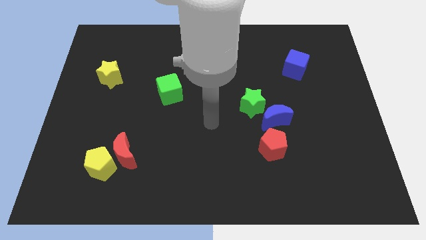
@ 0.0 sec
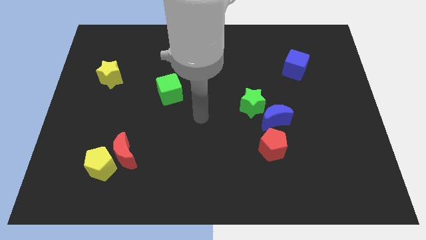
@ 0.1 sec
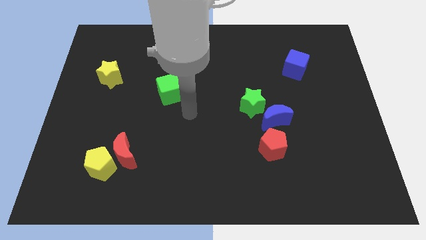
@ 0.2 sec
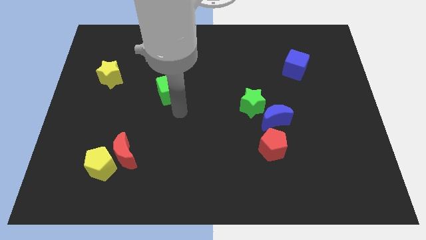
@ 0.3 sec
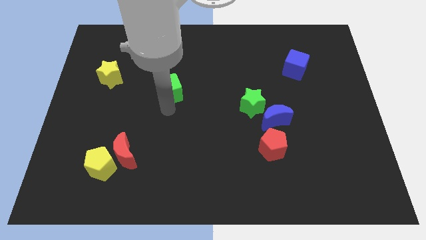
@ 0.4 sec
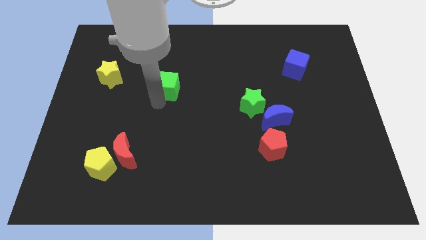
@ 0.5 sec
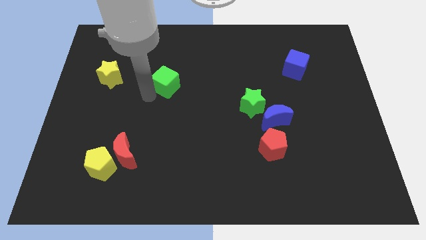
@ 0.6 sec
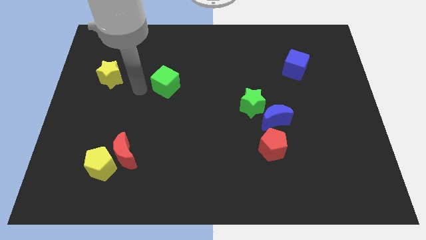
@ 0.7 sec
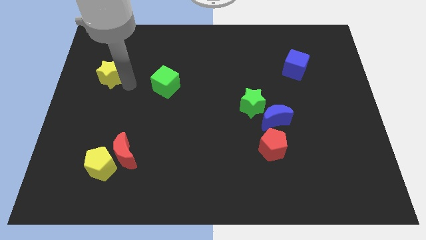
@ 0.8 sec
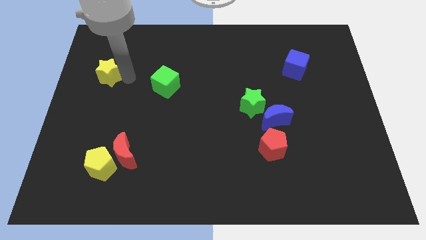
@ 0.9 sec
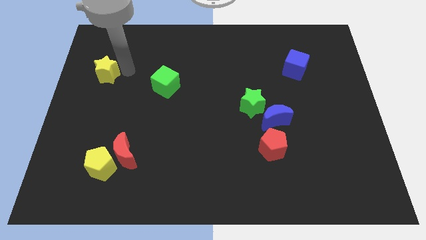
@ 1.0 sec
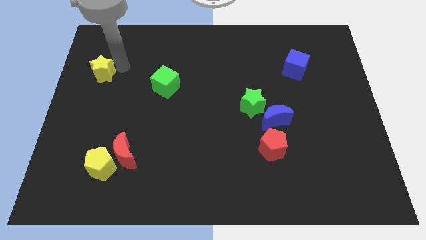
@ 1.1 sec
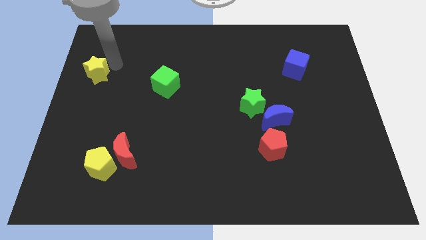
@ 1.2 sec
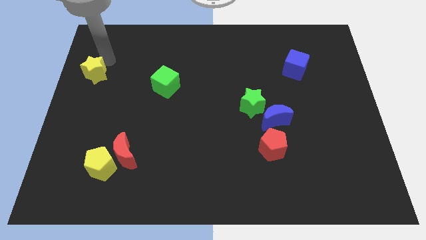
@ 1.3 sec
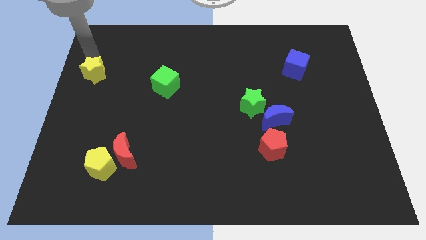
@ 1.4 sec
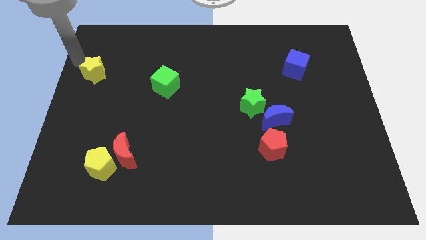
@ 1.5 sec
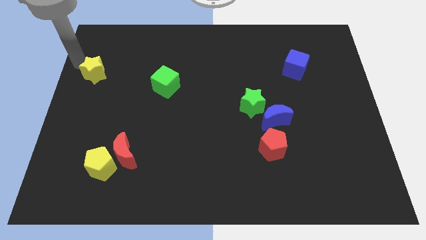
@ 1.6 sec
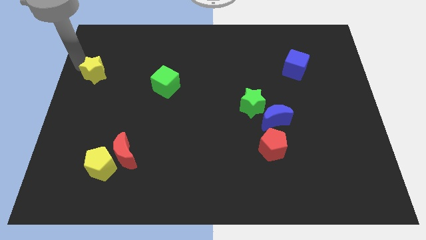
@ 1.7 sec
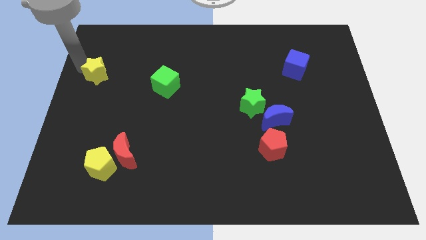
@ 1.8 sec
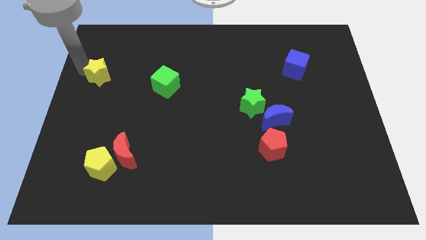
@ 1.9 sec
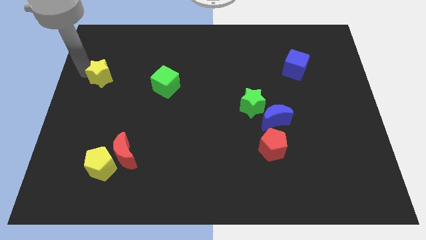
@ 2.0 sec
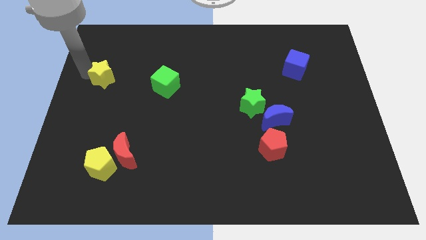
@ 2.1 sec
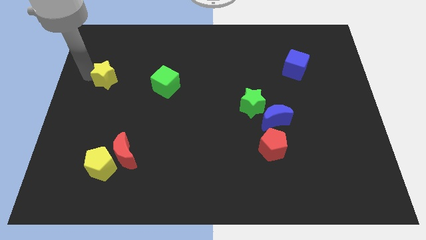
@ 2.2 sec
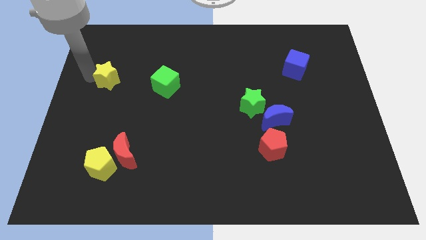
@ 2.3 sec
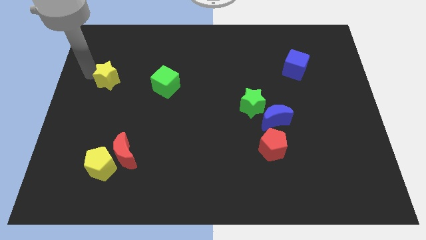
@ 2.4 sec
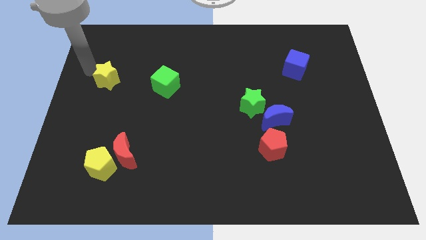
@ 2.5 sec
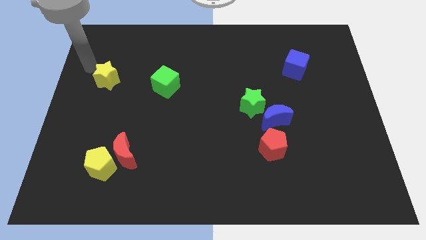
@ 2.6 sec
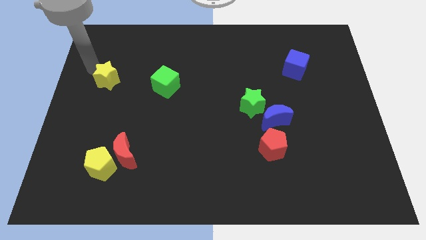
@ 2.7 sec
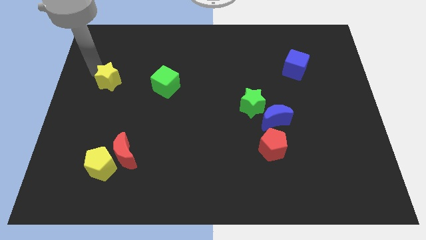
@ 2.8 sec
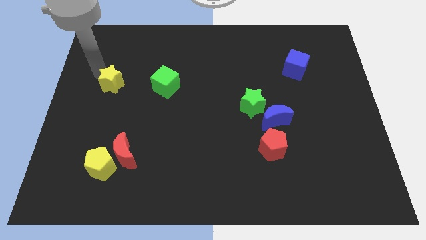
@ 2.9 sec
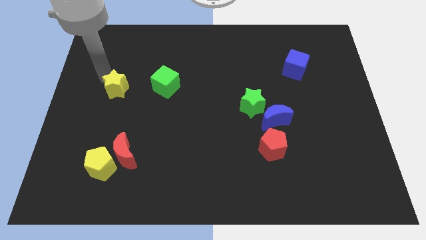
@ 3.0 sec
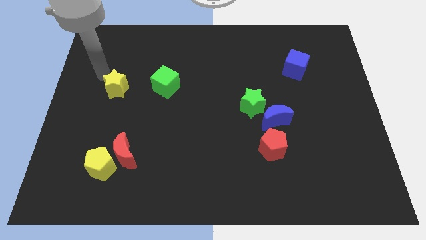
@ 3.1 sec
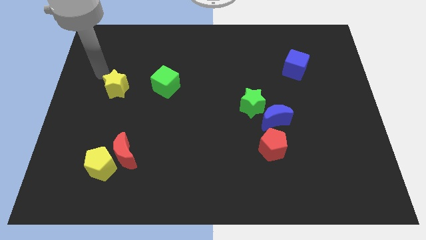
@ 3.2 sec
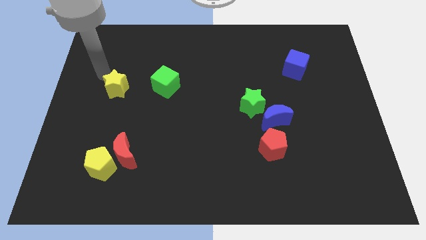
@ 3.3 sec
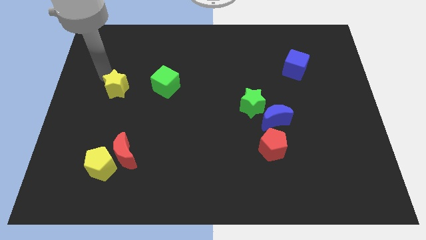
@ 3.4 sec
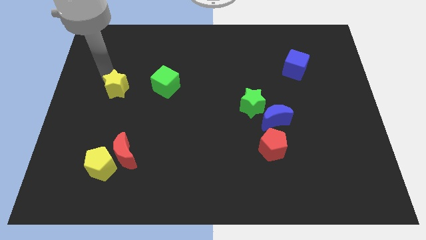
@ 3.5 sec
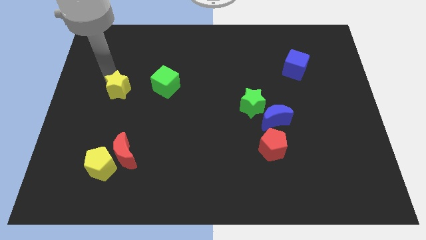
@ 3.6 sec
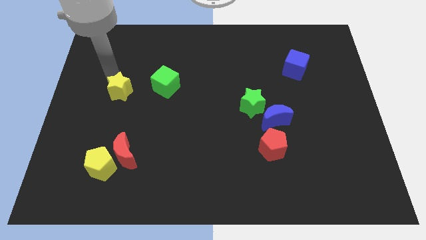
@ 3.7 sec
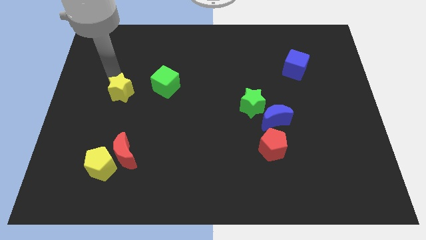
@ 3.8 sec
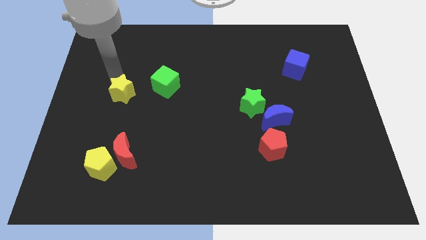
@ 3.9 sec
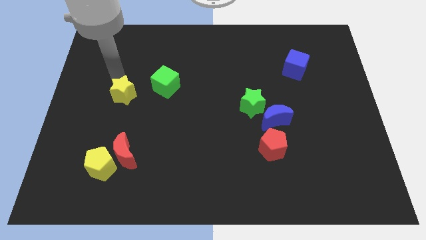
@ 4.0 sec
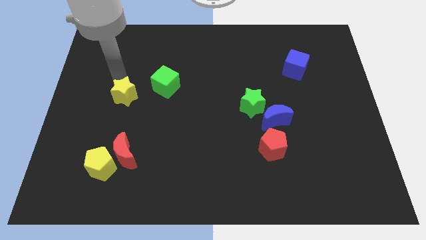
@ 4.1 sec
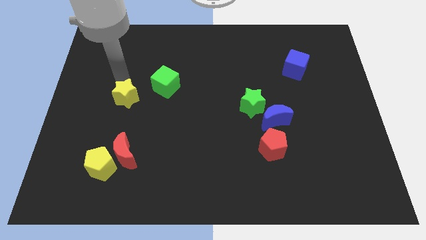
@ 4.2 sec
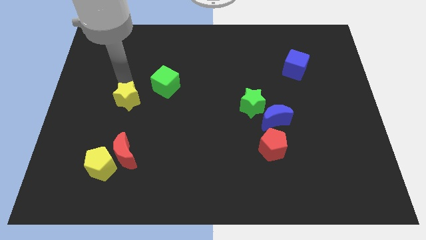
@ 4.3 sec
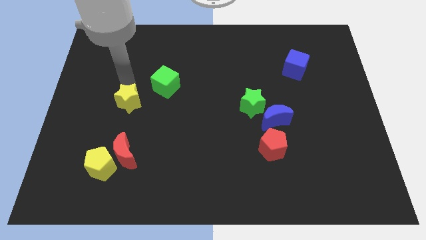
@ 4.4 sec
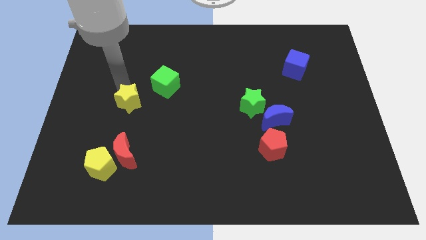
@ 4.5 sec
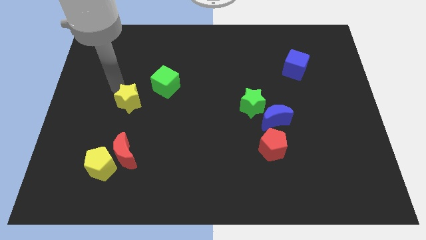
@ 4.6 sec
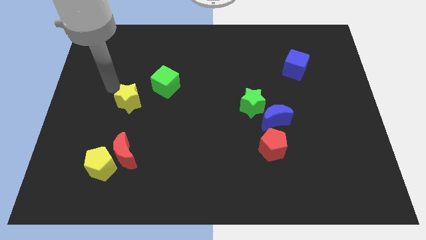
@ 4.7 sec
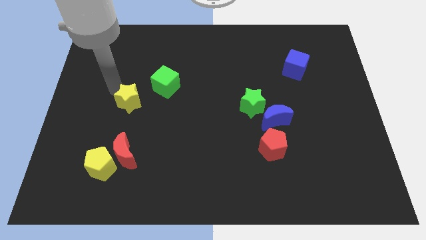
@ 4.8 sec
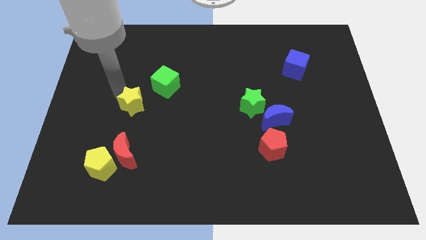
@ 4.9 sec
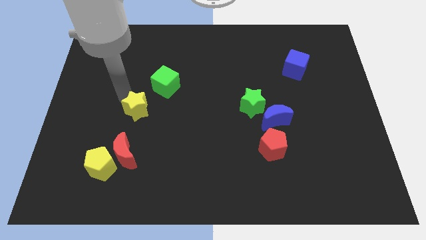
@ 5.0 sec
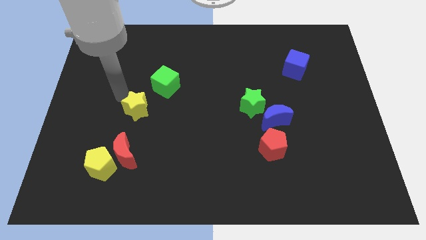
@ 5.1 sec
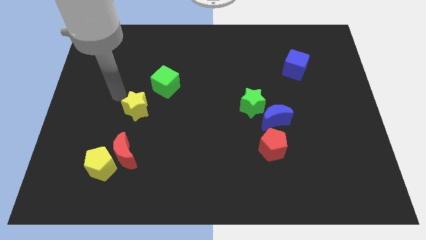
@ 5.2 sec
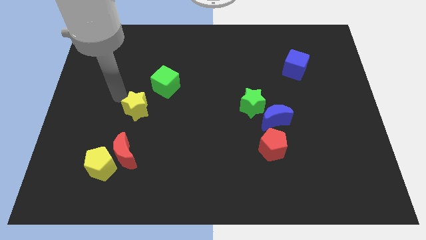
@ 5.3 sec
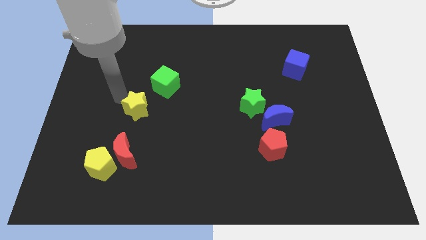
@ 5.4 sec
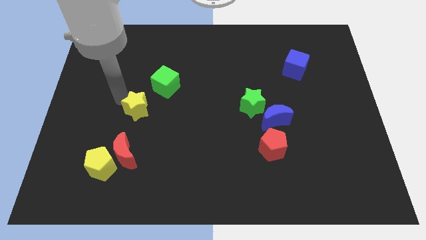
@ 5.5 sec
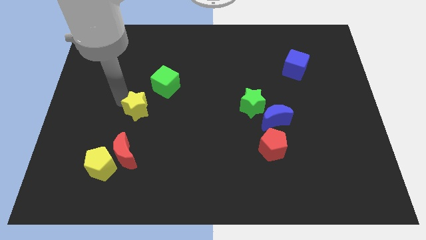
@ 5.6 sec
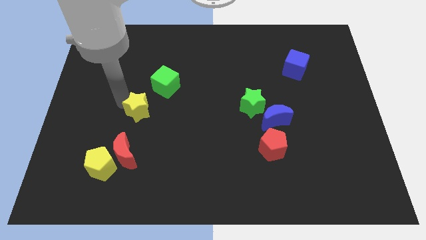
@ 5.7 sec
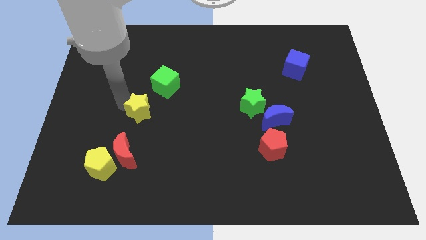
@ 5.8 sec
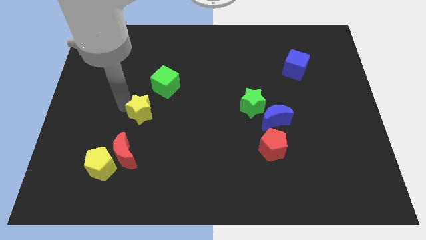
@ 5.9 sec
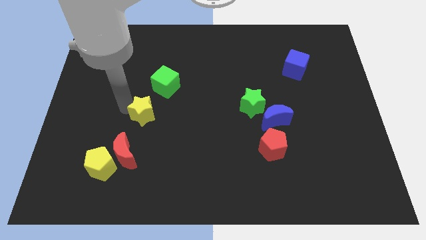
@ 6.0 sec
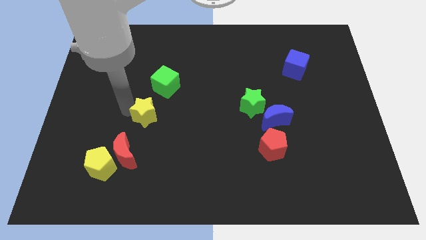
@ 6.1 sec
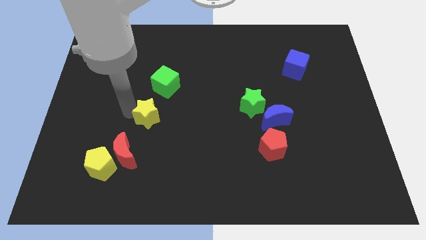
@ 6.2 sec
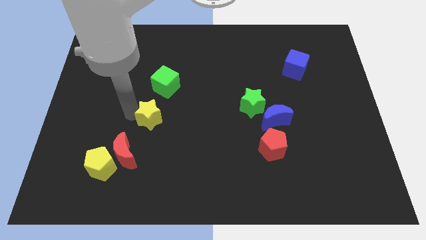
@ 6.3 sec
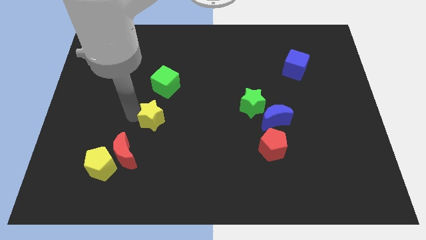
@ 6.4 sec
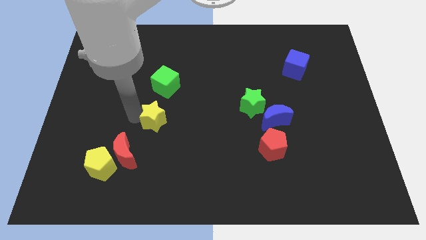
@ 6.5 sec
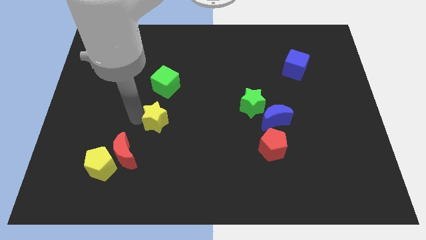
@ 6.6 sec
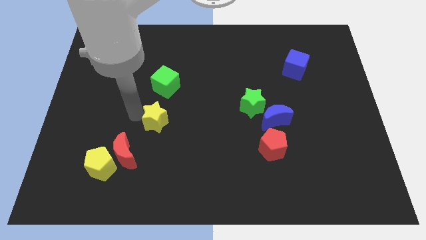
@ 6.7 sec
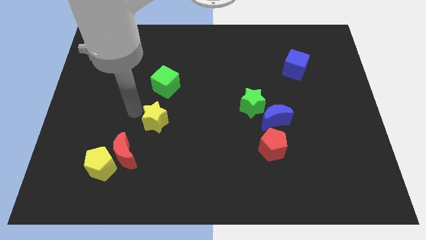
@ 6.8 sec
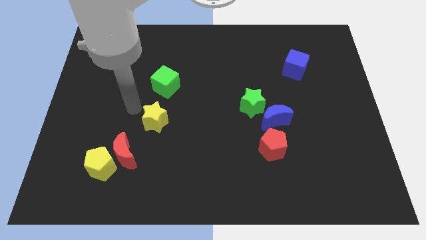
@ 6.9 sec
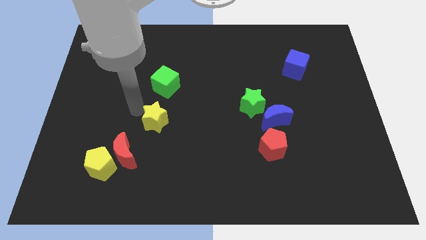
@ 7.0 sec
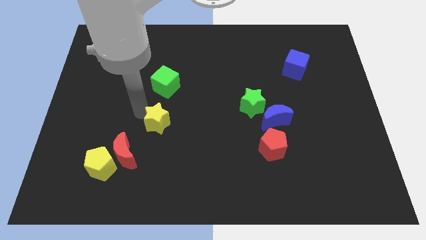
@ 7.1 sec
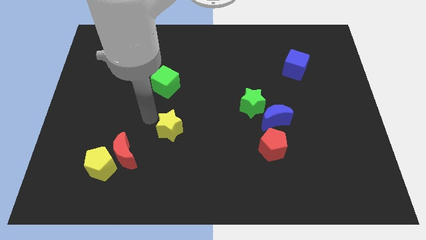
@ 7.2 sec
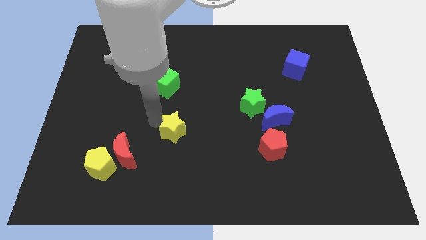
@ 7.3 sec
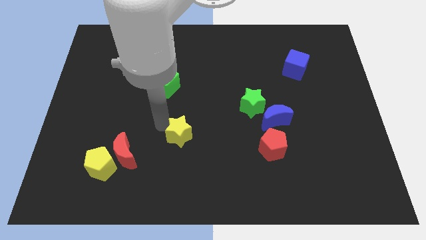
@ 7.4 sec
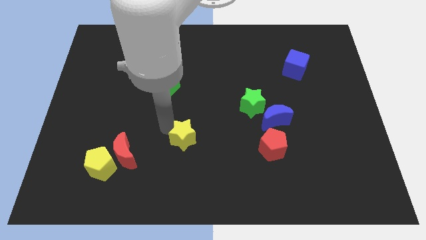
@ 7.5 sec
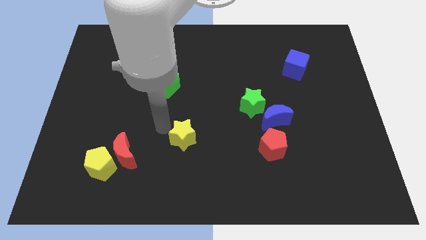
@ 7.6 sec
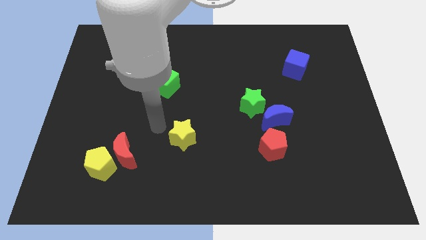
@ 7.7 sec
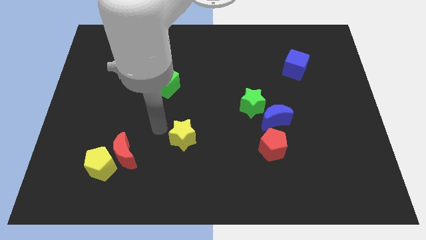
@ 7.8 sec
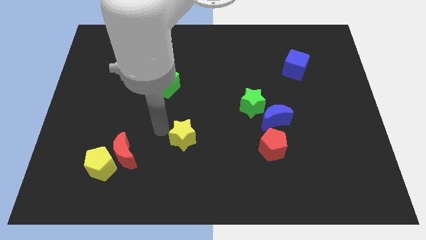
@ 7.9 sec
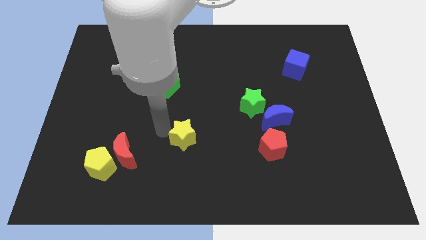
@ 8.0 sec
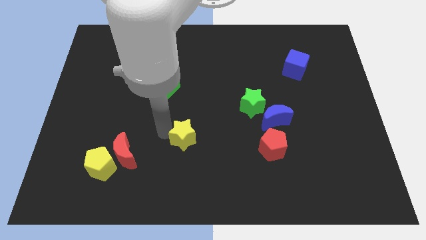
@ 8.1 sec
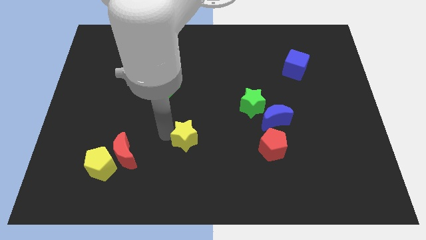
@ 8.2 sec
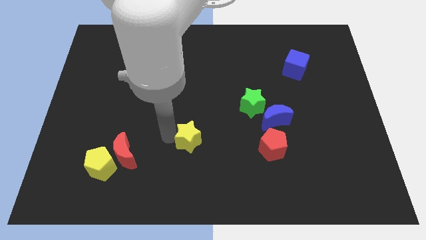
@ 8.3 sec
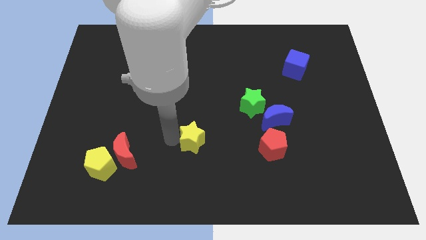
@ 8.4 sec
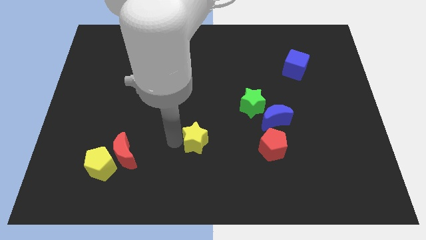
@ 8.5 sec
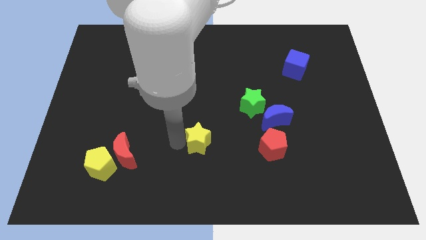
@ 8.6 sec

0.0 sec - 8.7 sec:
slide the yellow star to the left side of the red pentagon
